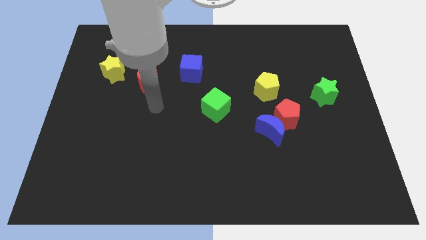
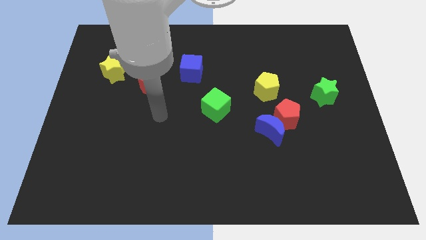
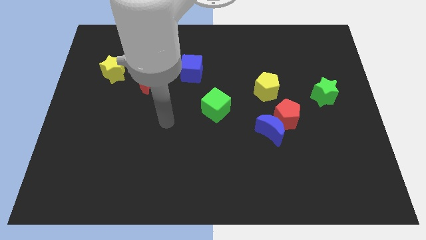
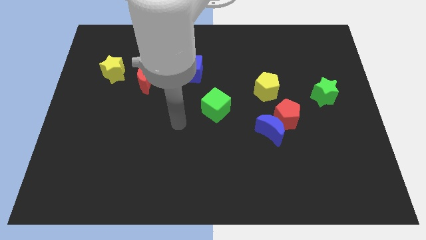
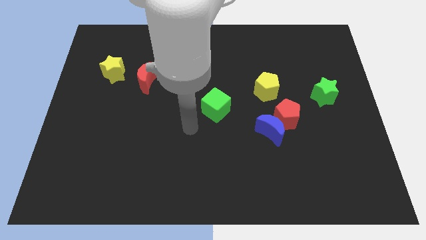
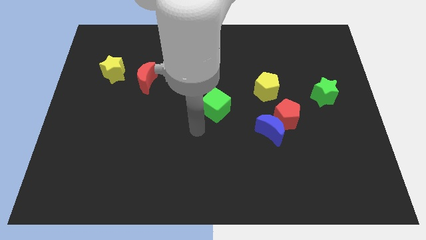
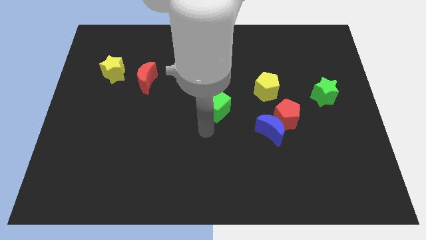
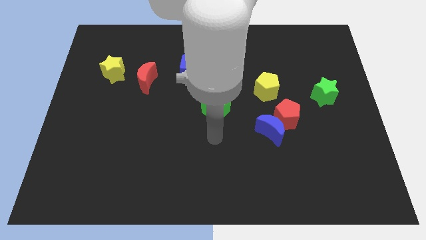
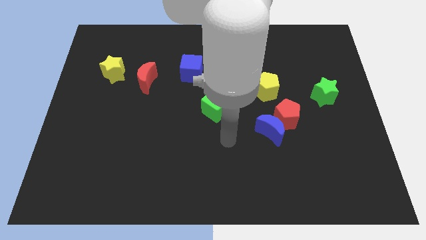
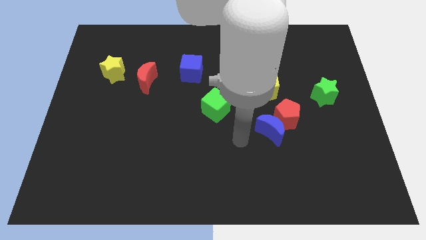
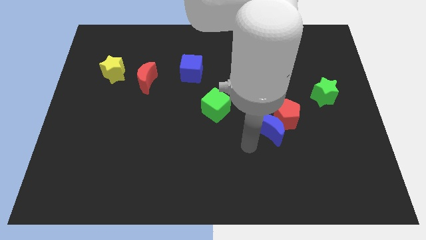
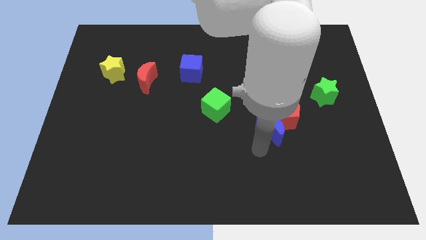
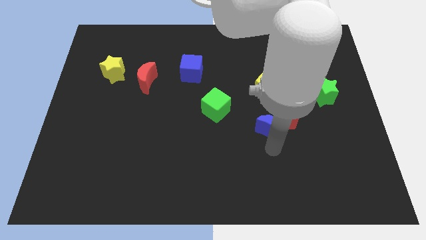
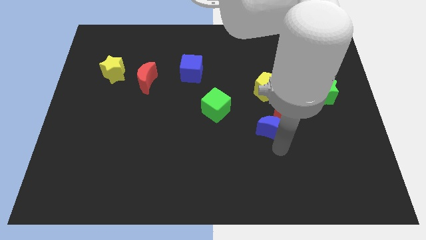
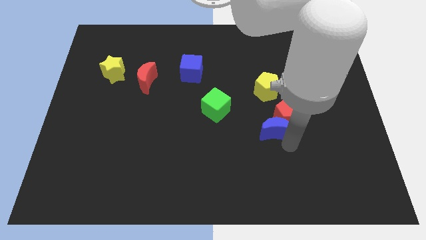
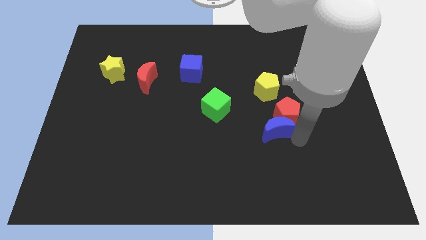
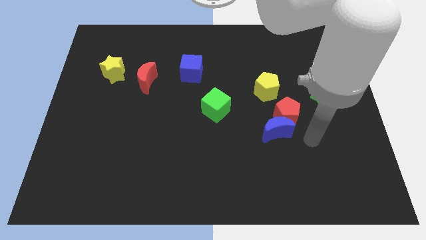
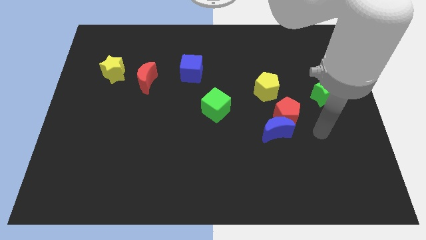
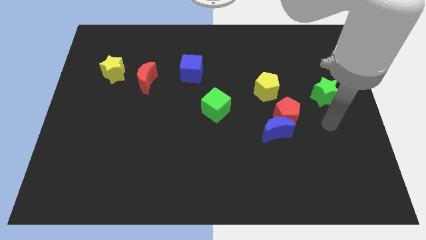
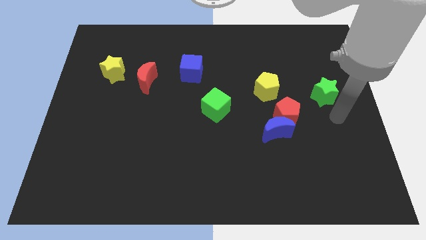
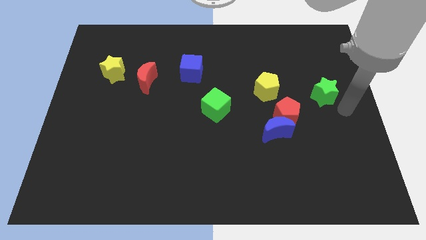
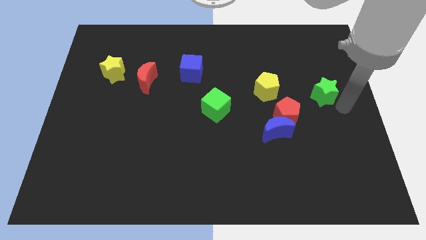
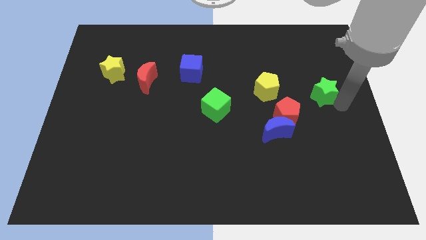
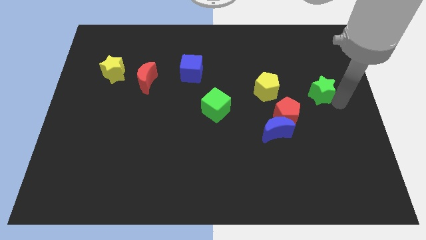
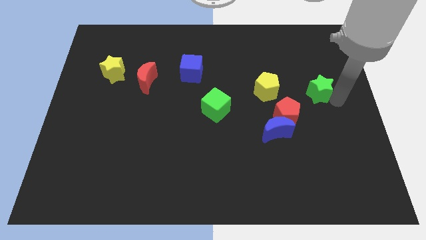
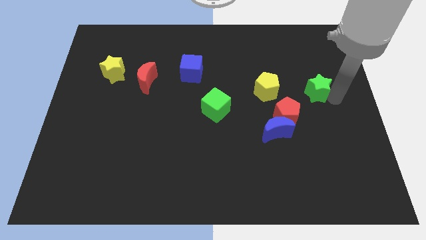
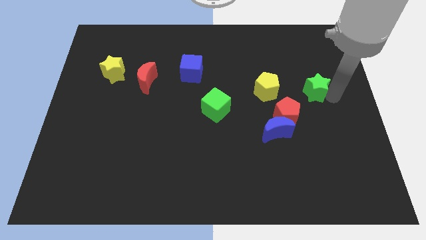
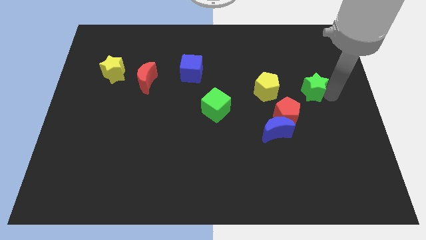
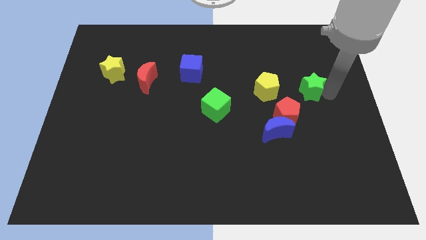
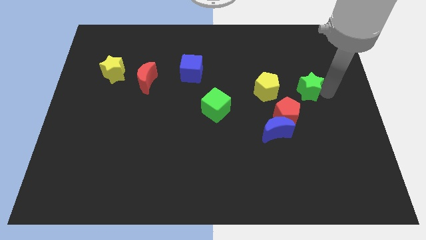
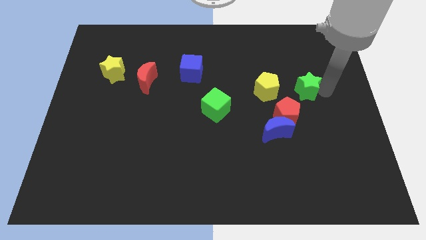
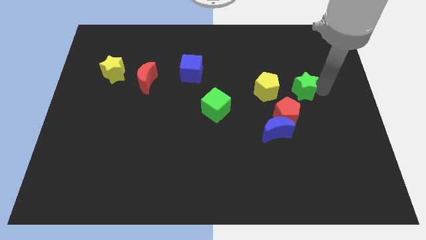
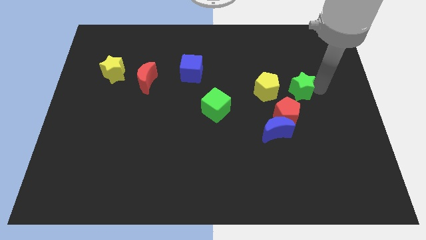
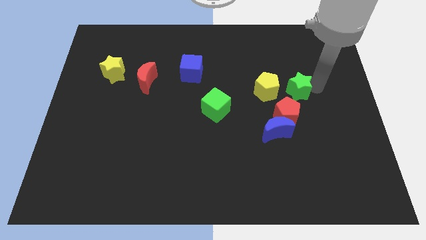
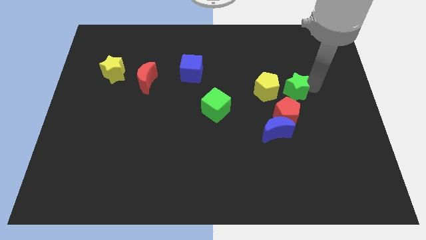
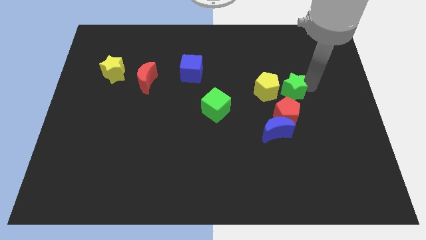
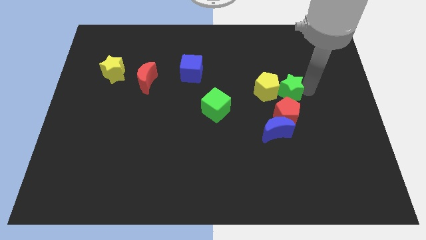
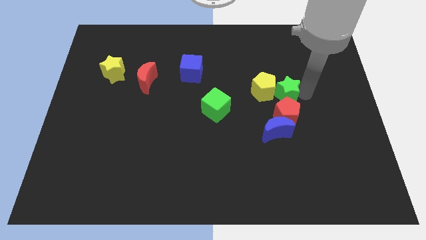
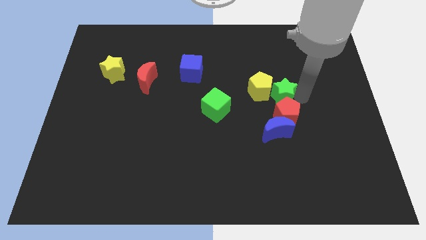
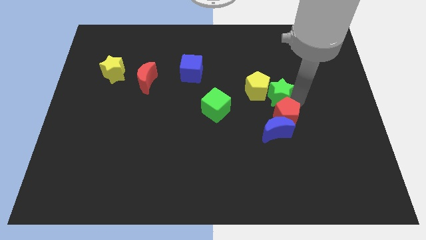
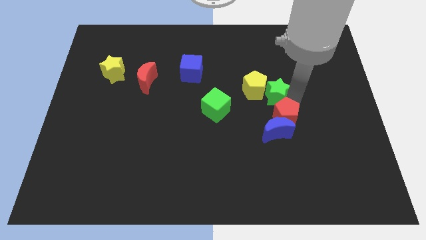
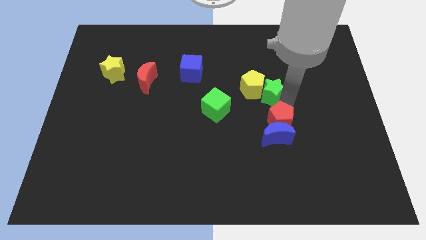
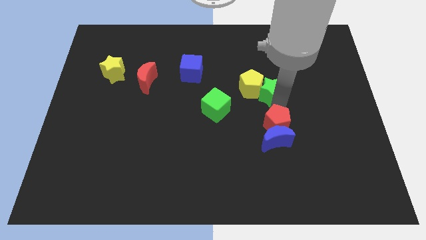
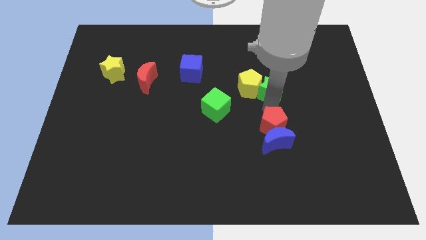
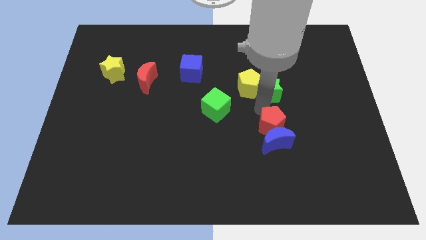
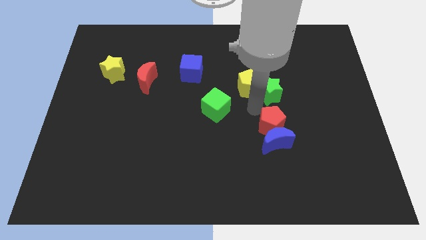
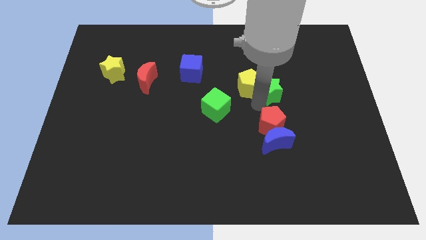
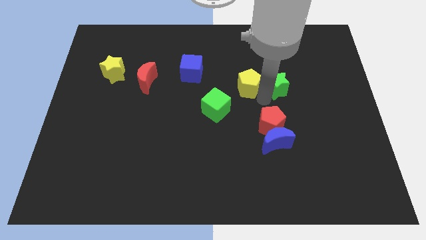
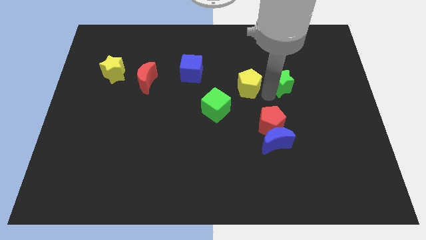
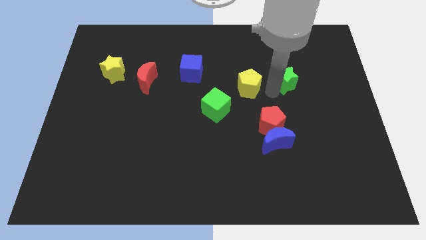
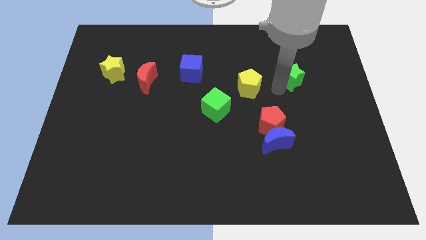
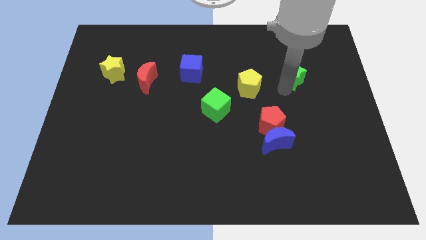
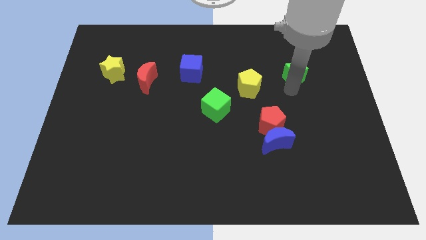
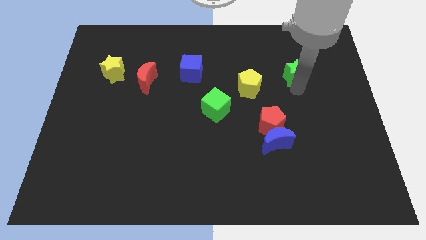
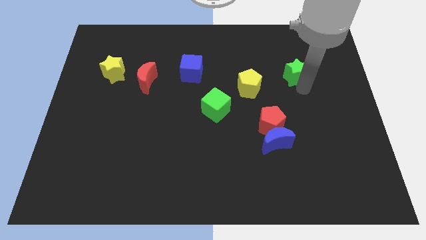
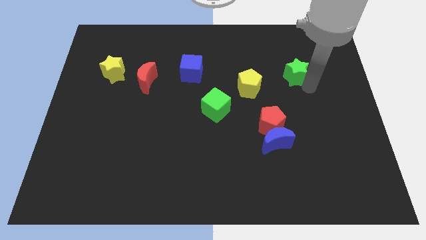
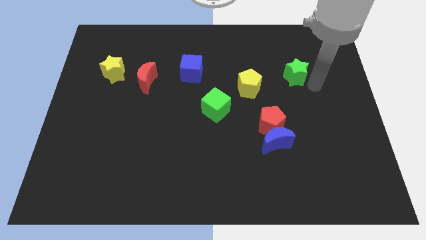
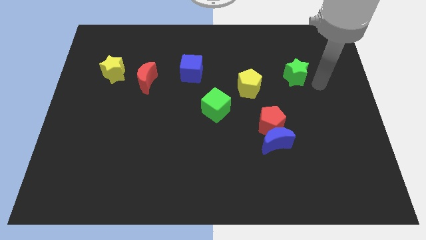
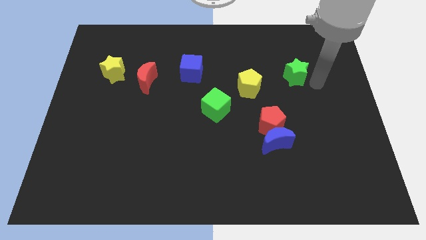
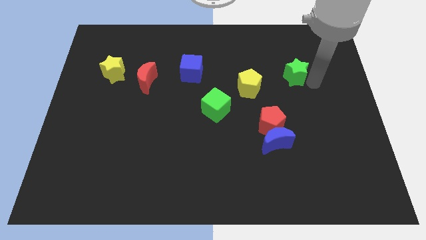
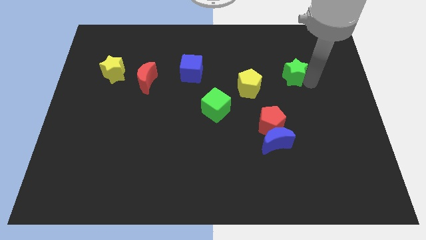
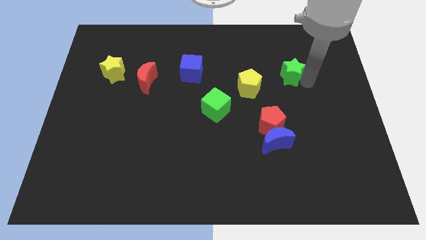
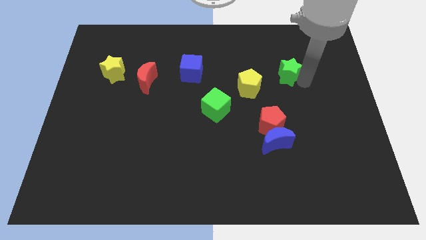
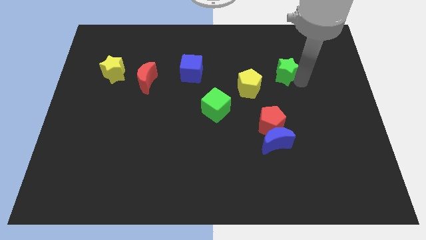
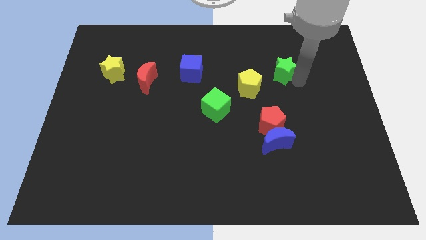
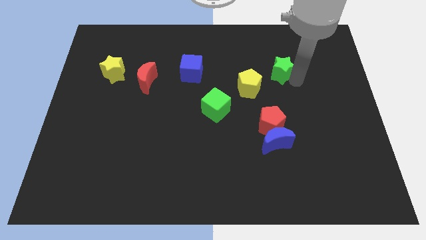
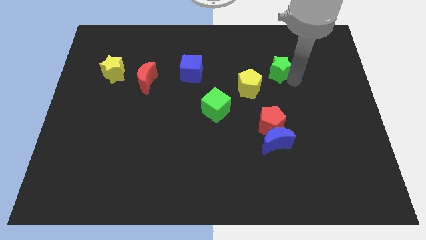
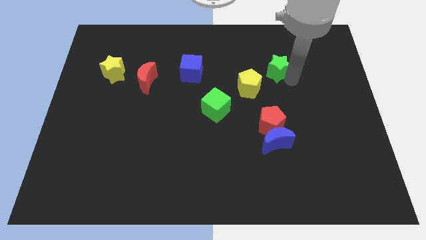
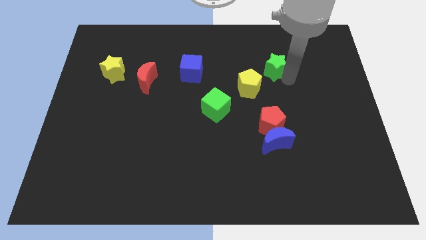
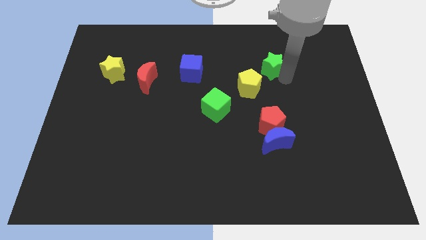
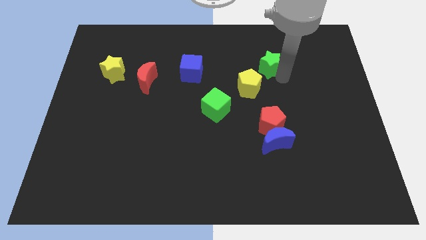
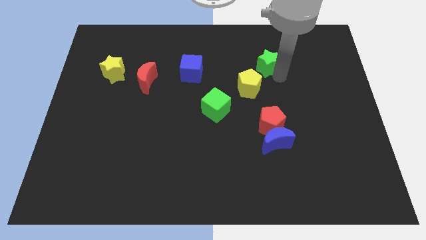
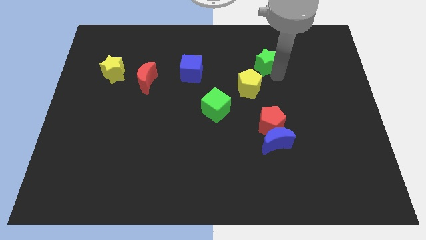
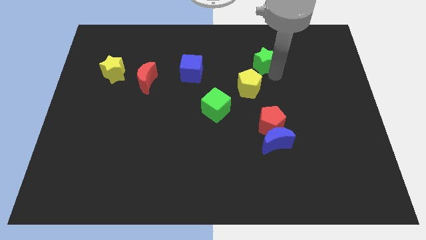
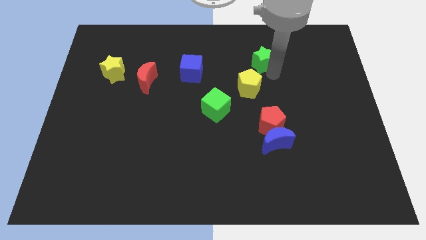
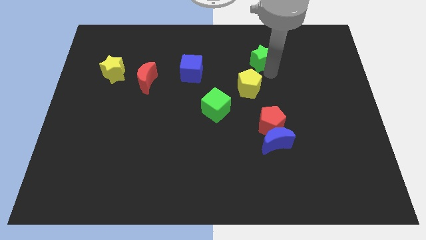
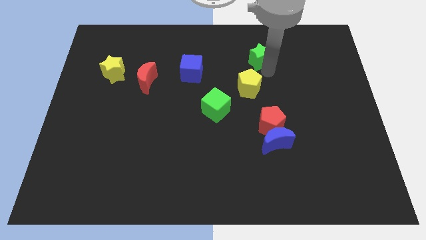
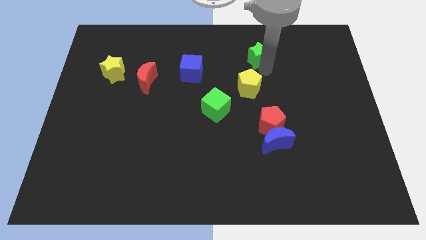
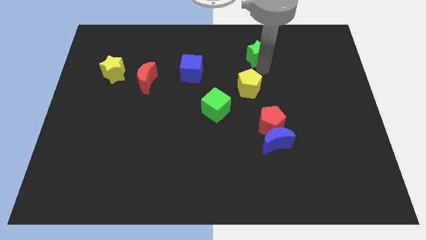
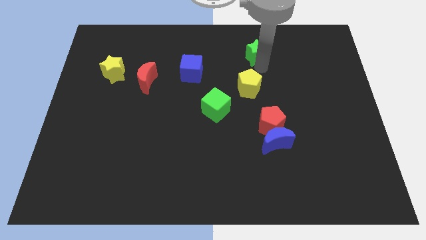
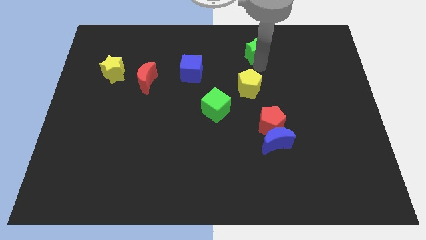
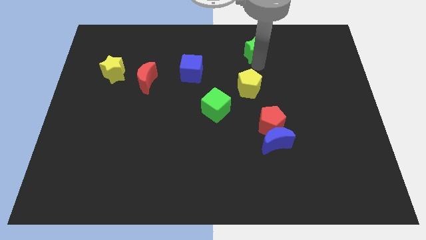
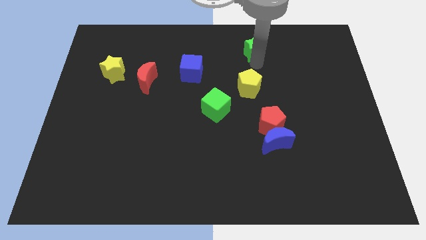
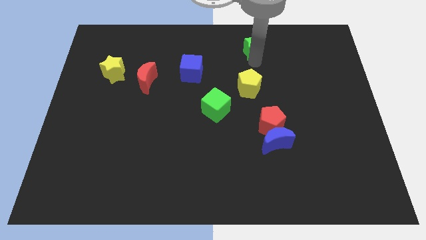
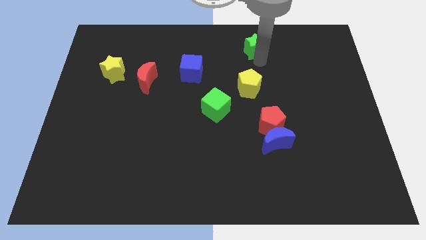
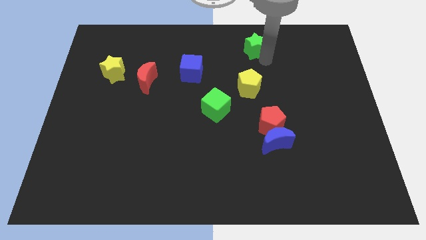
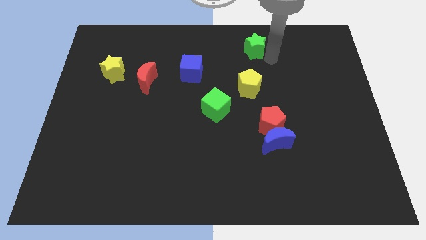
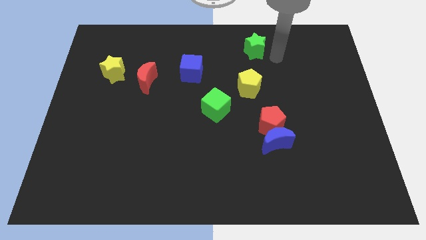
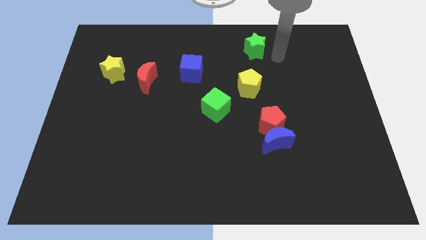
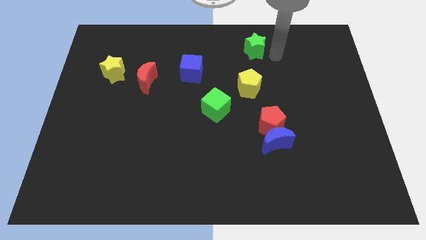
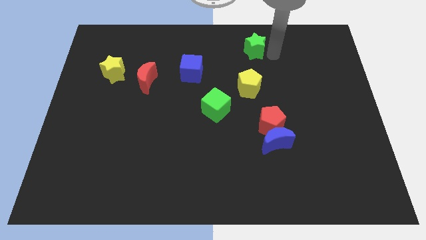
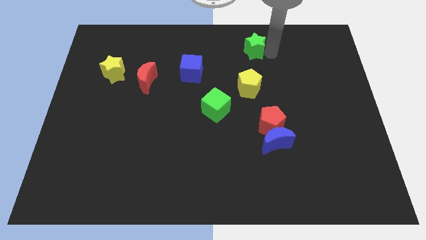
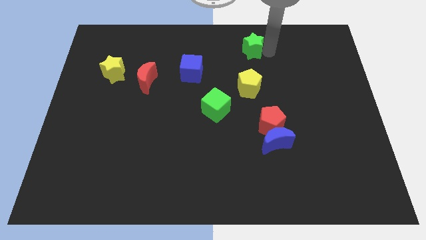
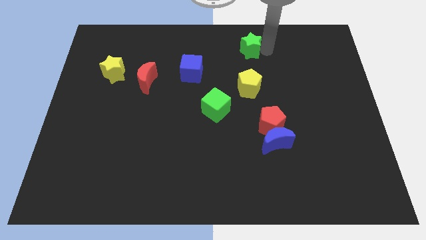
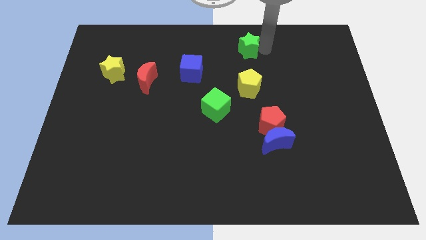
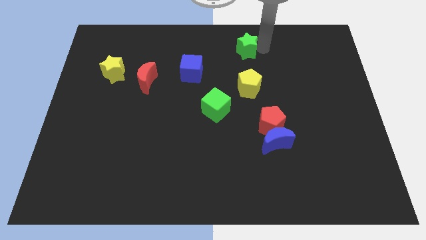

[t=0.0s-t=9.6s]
move the green star to the towards your base
